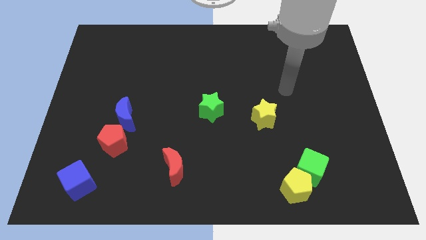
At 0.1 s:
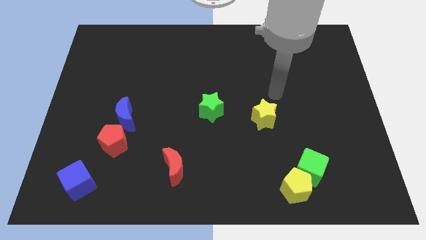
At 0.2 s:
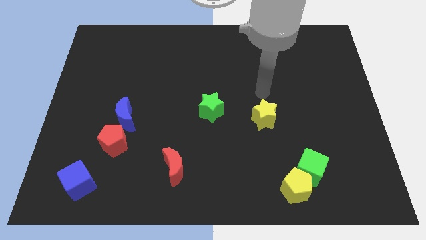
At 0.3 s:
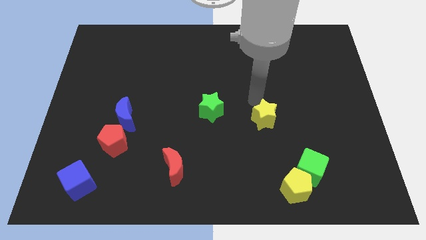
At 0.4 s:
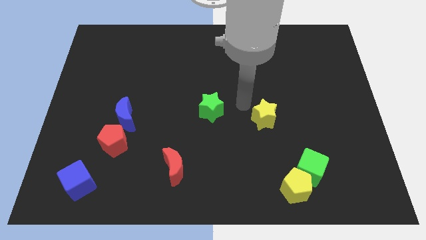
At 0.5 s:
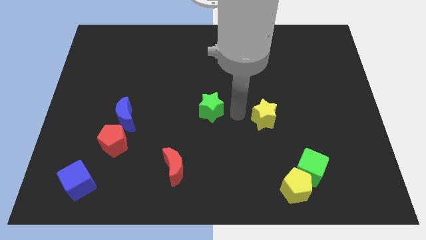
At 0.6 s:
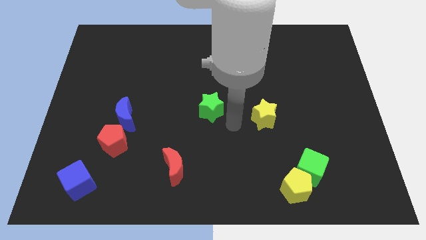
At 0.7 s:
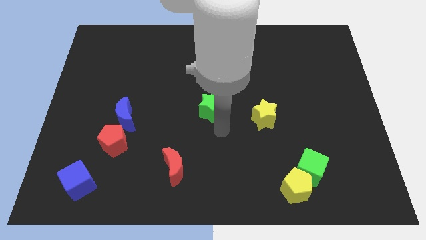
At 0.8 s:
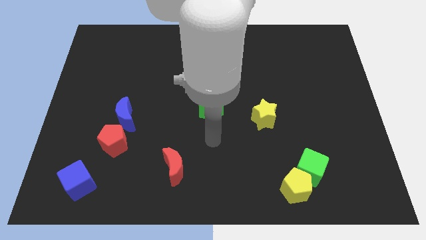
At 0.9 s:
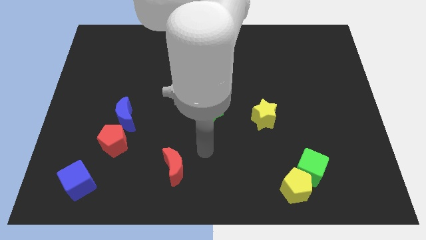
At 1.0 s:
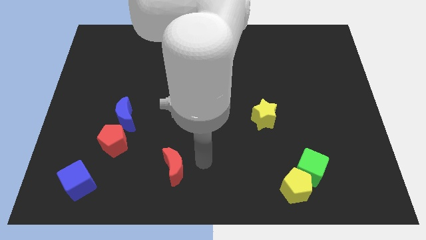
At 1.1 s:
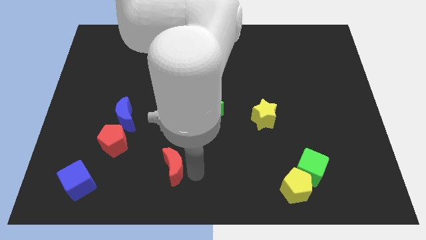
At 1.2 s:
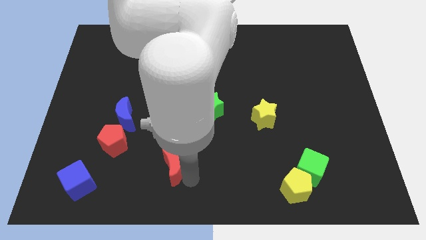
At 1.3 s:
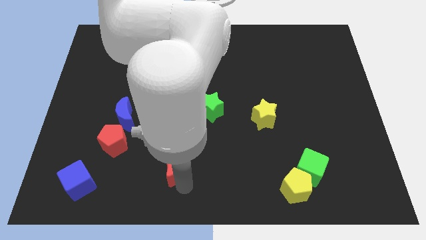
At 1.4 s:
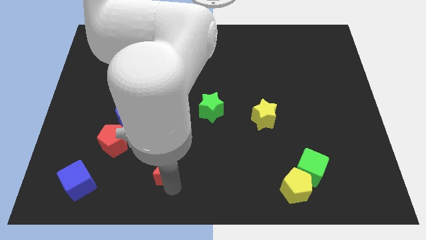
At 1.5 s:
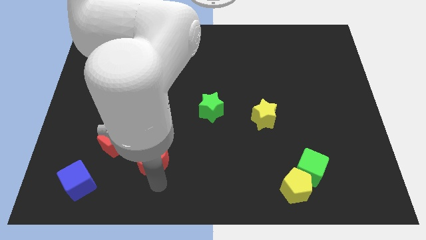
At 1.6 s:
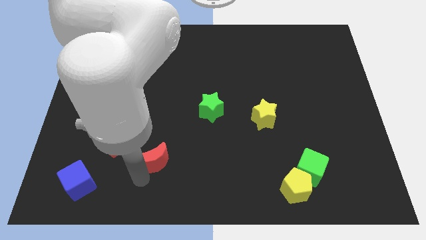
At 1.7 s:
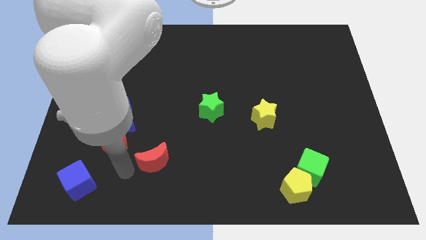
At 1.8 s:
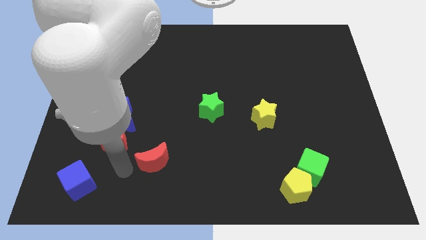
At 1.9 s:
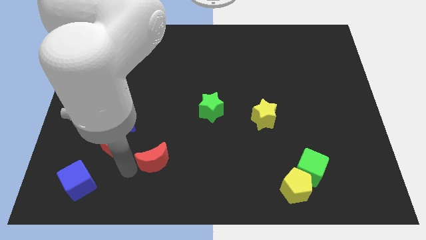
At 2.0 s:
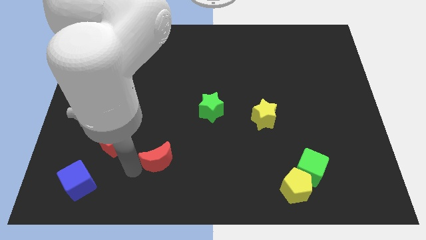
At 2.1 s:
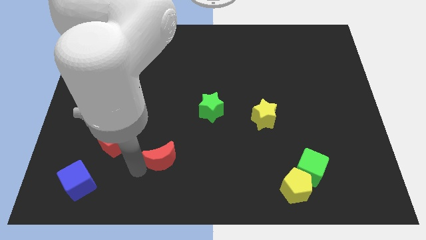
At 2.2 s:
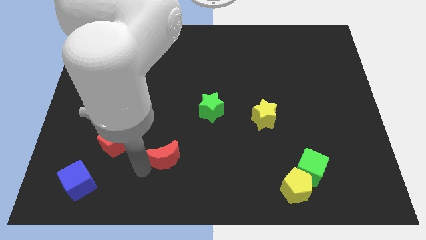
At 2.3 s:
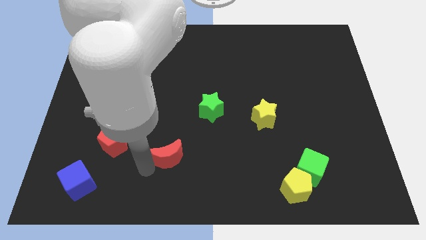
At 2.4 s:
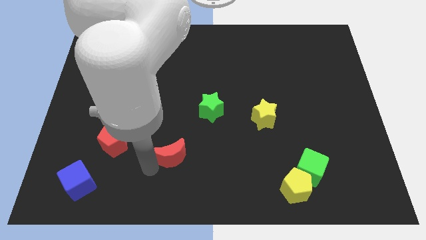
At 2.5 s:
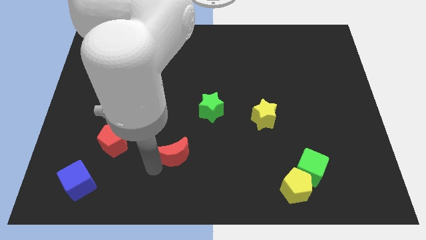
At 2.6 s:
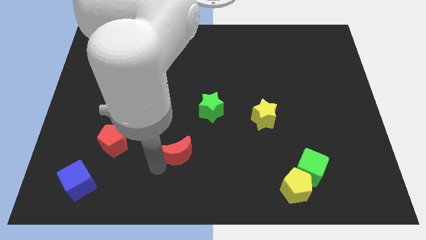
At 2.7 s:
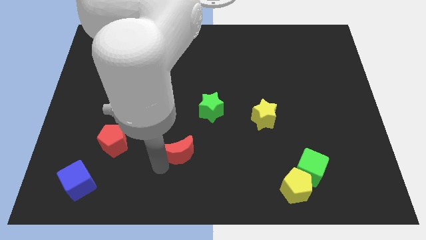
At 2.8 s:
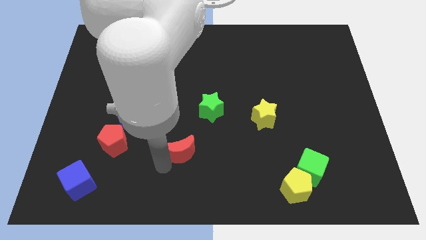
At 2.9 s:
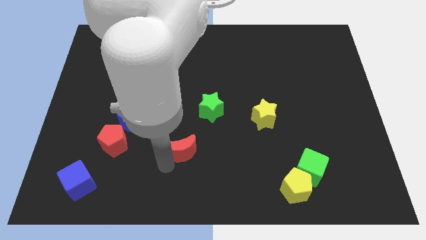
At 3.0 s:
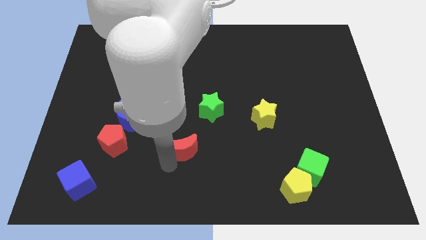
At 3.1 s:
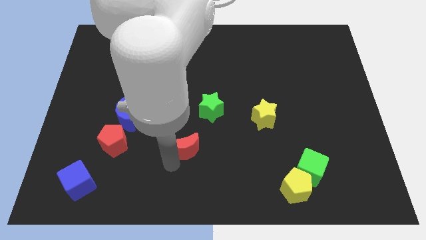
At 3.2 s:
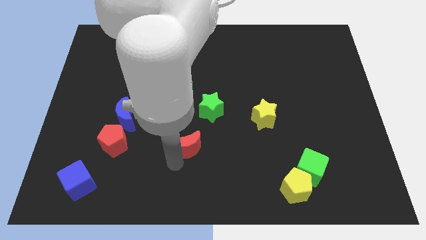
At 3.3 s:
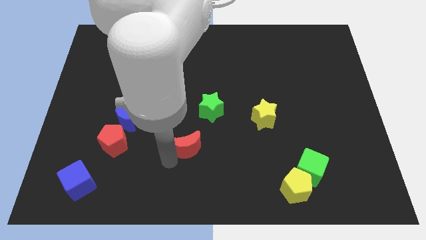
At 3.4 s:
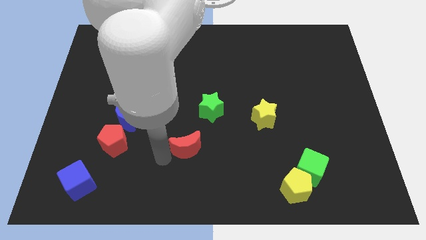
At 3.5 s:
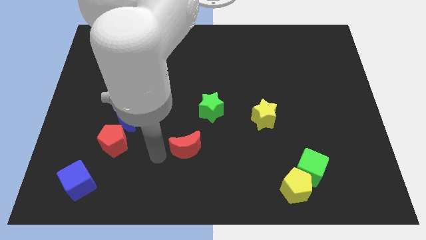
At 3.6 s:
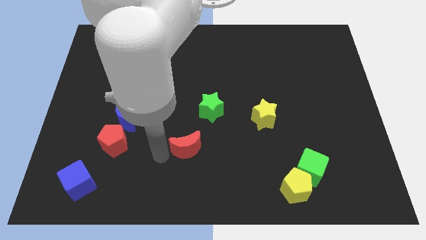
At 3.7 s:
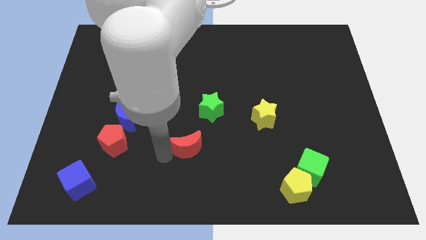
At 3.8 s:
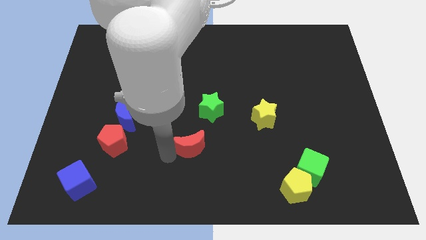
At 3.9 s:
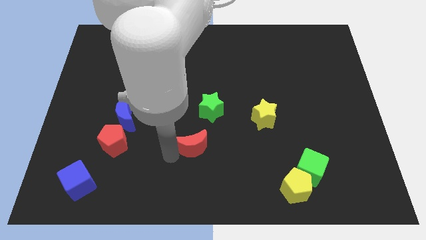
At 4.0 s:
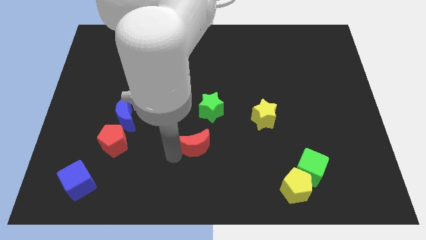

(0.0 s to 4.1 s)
move the red moon upwards and to the right diagonally somewhat

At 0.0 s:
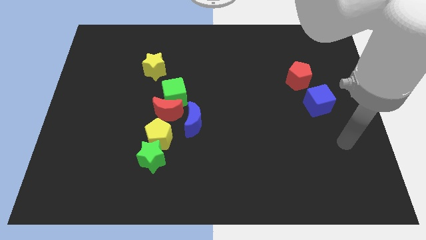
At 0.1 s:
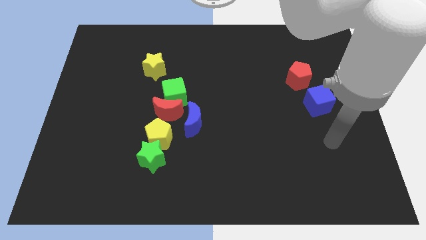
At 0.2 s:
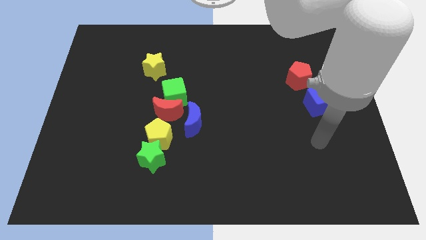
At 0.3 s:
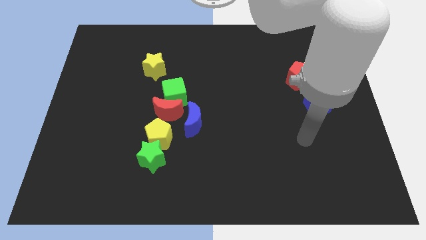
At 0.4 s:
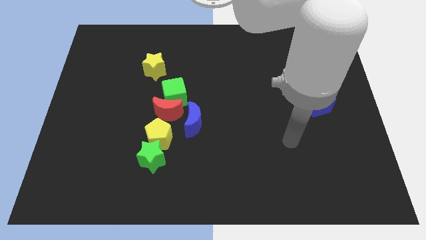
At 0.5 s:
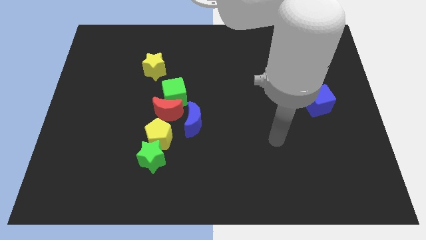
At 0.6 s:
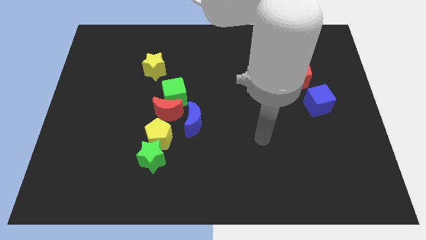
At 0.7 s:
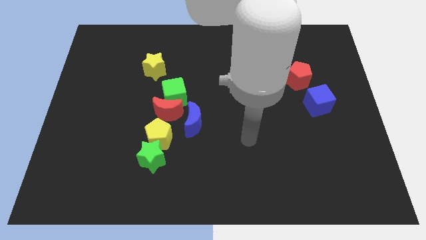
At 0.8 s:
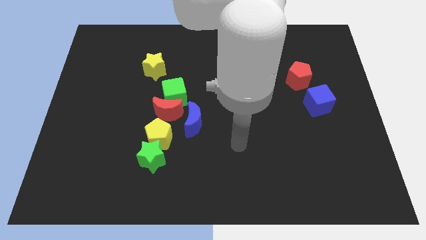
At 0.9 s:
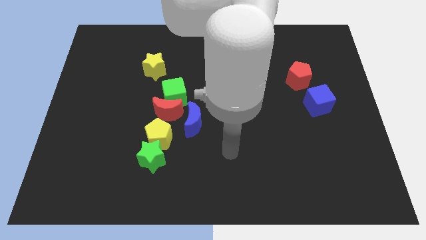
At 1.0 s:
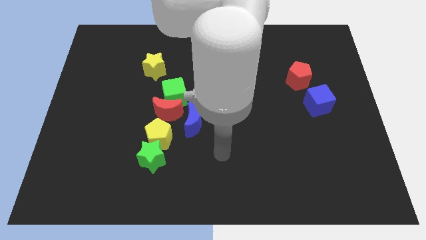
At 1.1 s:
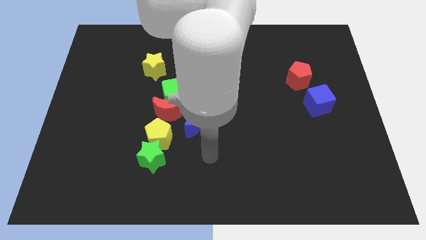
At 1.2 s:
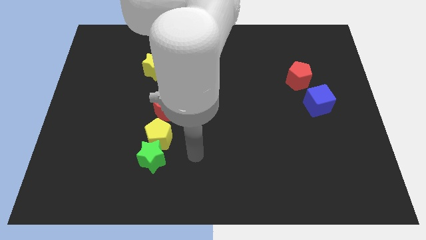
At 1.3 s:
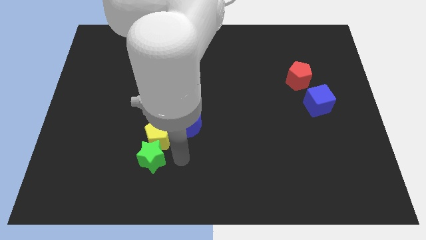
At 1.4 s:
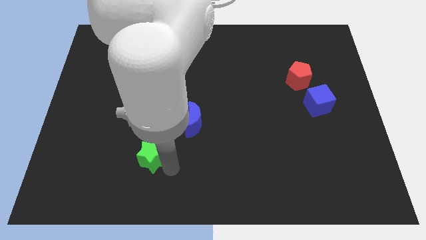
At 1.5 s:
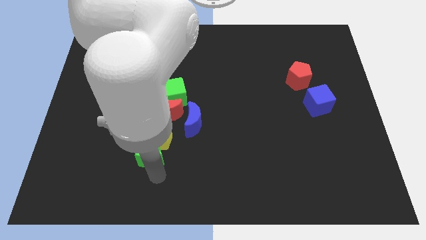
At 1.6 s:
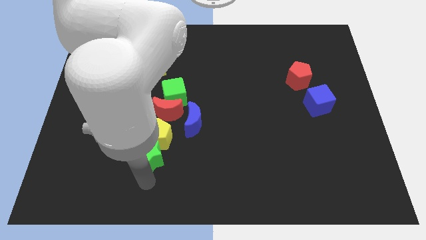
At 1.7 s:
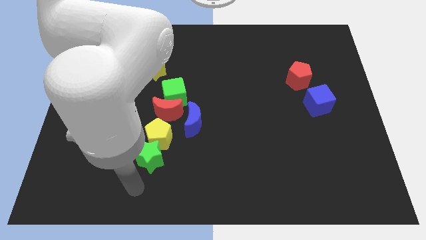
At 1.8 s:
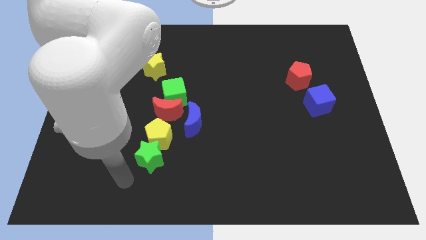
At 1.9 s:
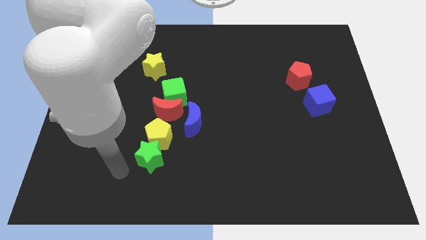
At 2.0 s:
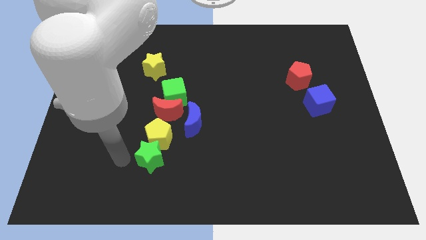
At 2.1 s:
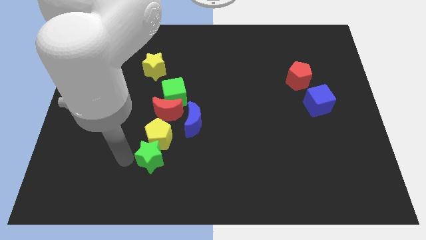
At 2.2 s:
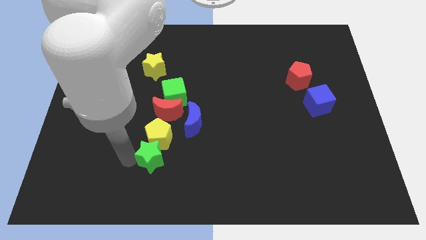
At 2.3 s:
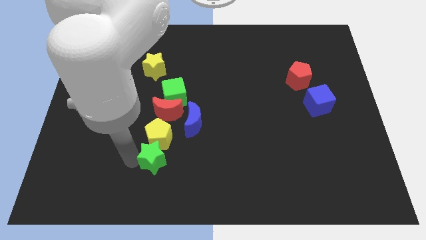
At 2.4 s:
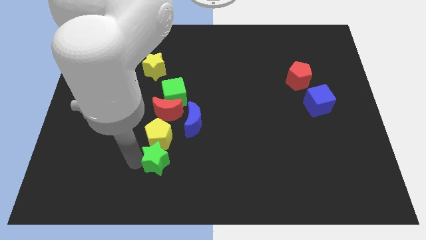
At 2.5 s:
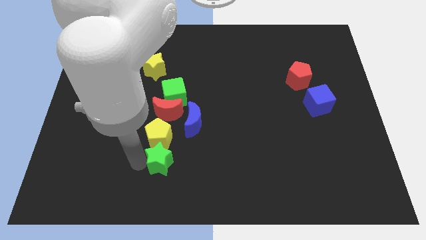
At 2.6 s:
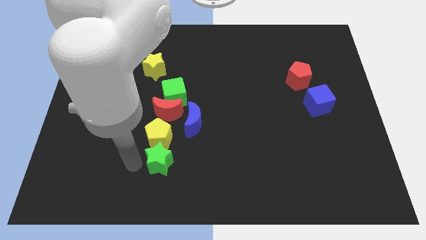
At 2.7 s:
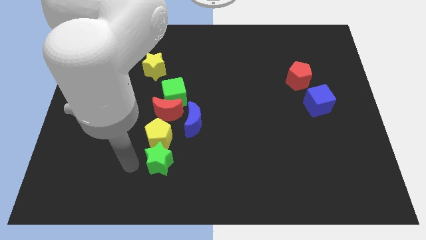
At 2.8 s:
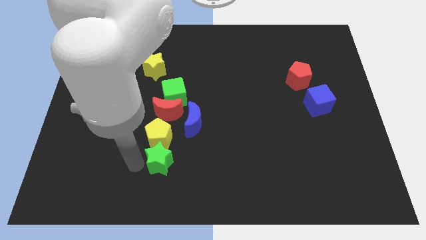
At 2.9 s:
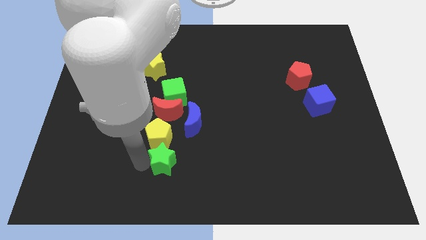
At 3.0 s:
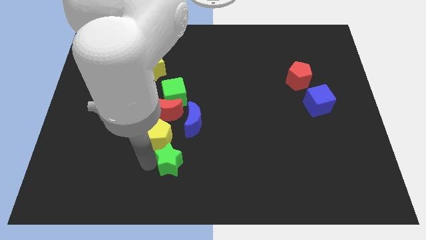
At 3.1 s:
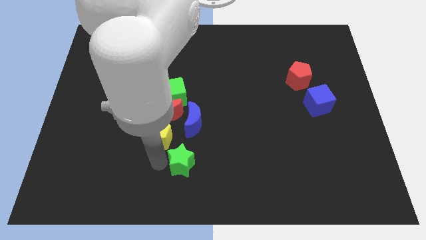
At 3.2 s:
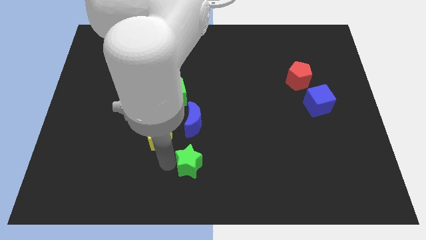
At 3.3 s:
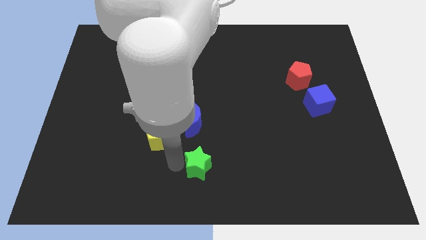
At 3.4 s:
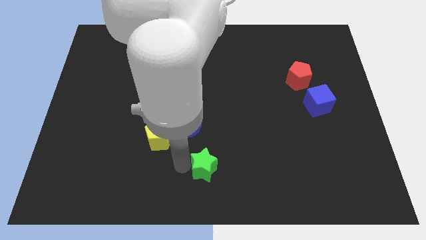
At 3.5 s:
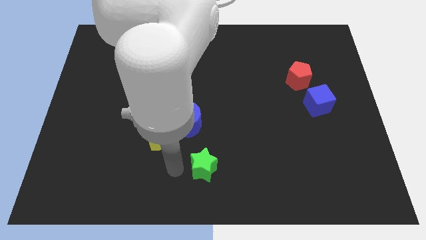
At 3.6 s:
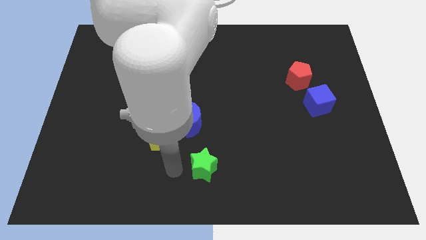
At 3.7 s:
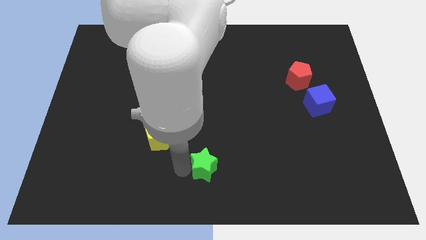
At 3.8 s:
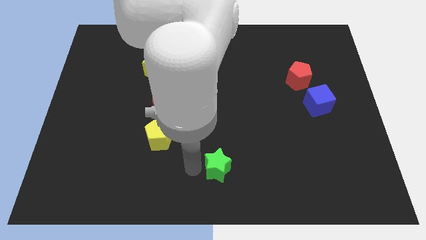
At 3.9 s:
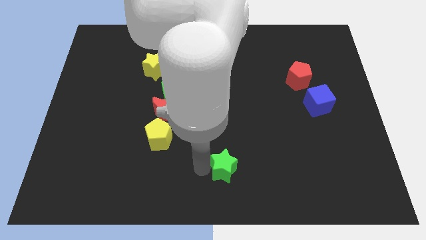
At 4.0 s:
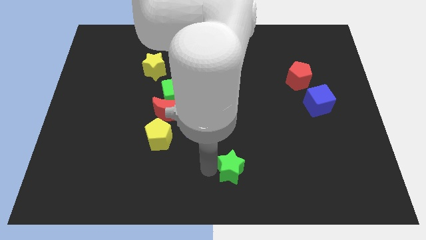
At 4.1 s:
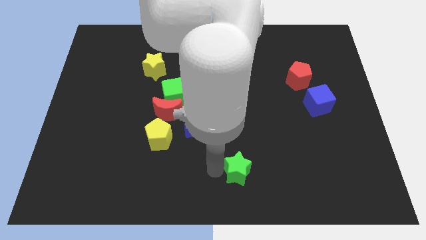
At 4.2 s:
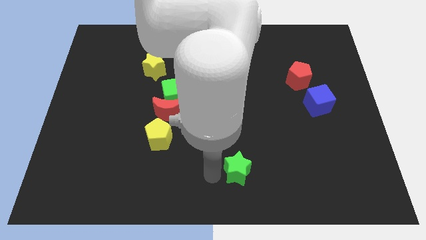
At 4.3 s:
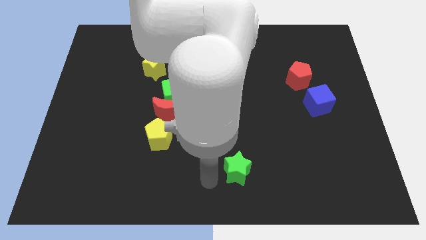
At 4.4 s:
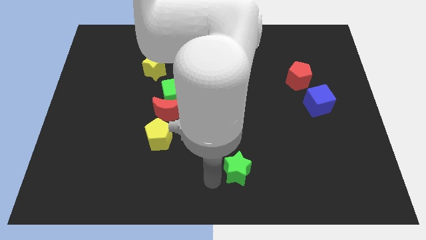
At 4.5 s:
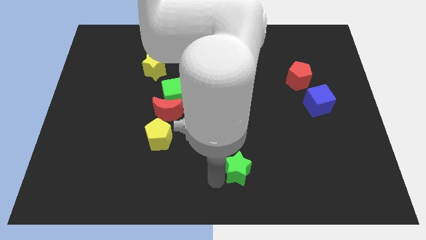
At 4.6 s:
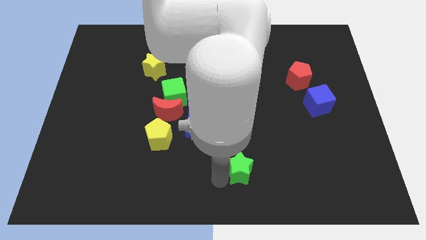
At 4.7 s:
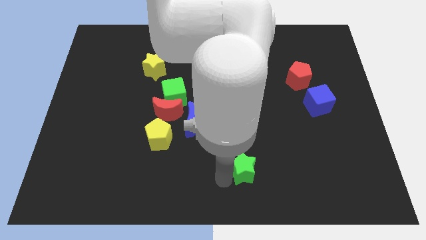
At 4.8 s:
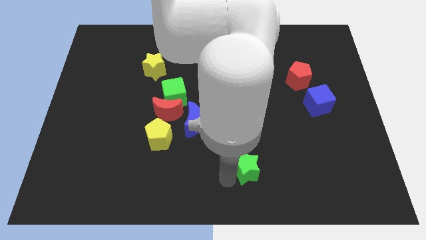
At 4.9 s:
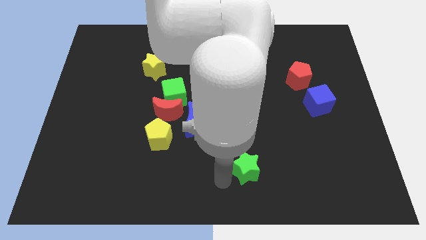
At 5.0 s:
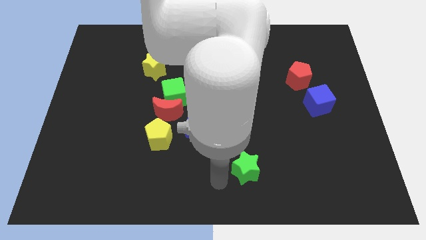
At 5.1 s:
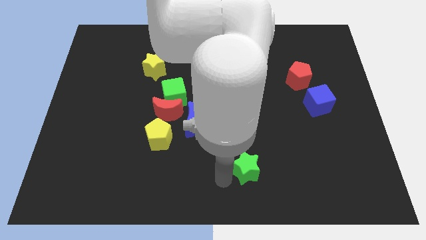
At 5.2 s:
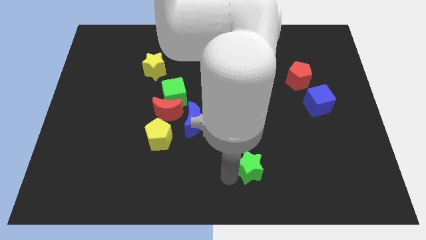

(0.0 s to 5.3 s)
slide the green star to the right
